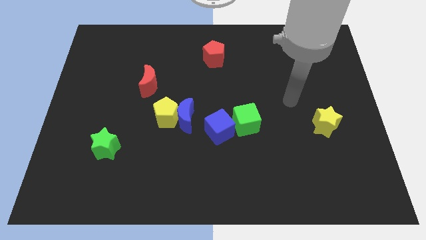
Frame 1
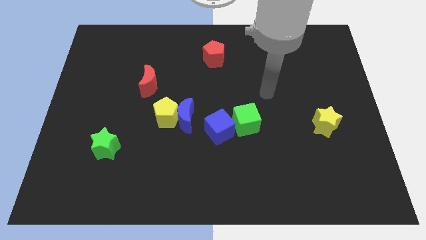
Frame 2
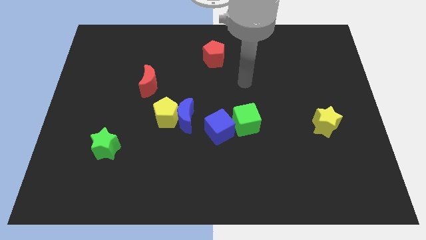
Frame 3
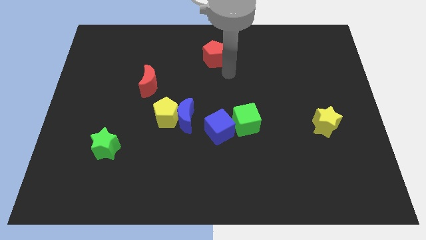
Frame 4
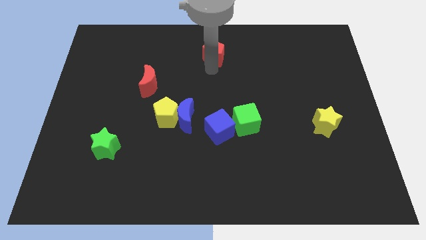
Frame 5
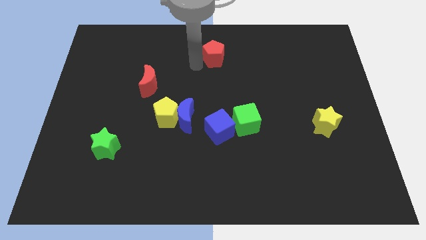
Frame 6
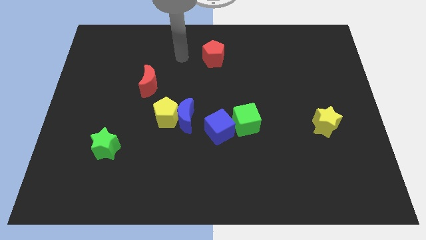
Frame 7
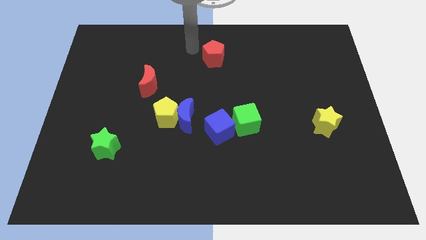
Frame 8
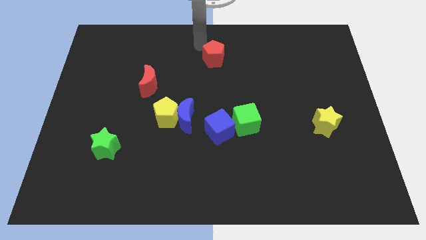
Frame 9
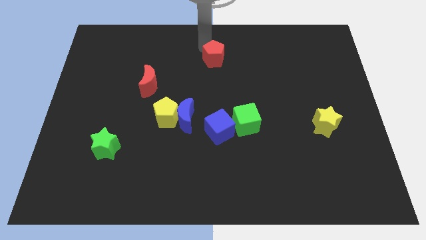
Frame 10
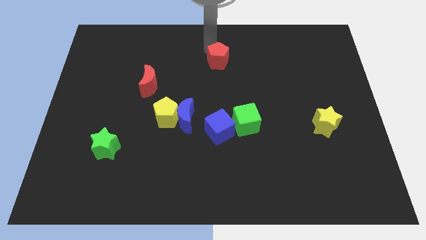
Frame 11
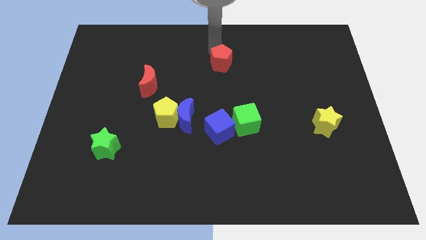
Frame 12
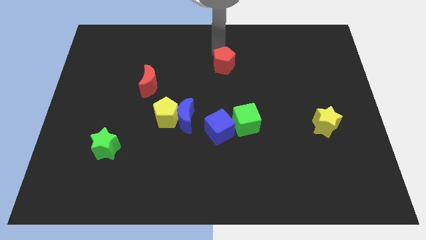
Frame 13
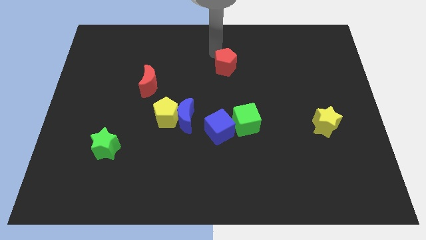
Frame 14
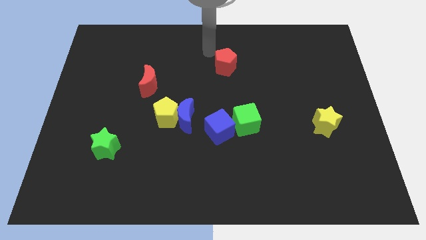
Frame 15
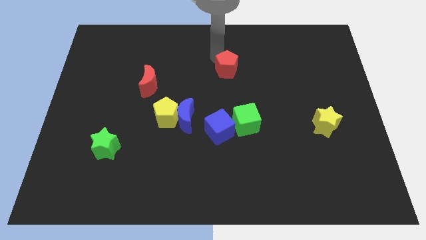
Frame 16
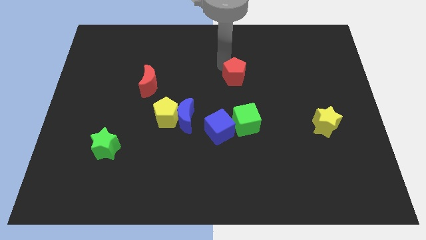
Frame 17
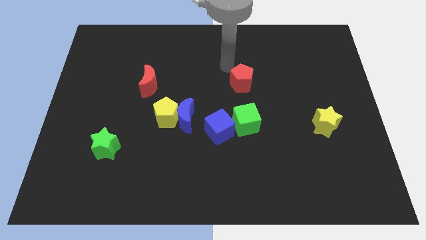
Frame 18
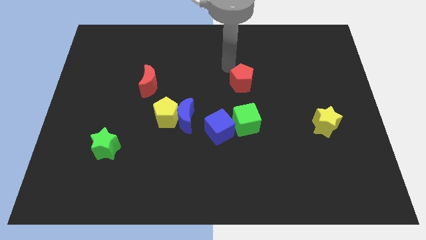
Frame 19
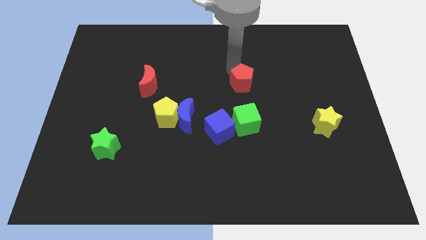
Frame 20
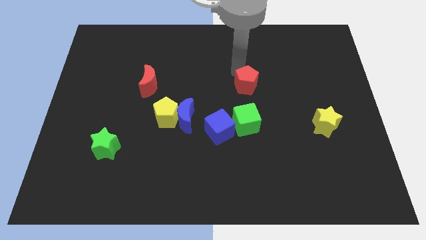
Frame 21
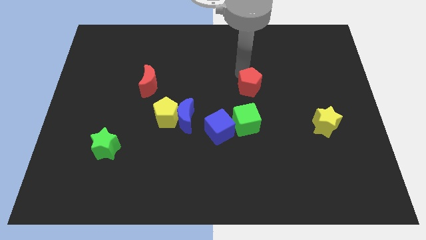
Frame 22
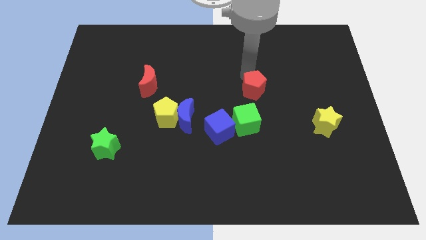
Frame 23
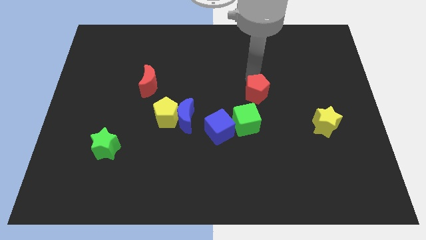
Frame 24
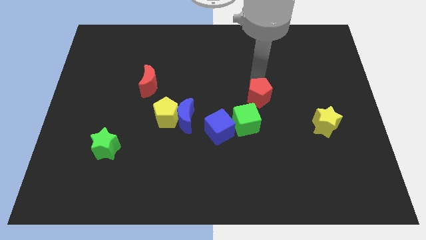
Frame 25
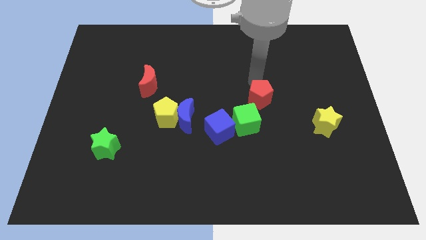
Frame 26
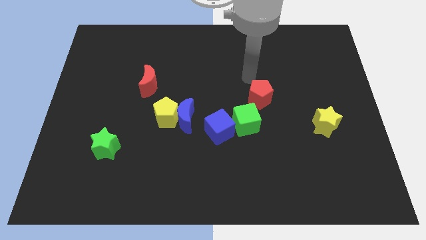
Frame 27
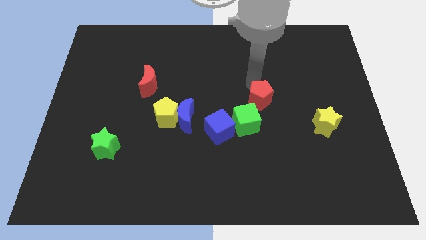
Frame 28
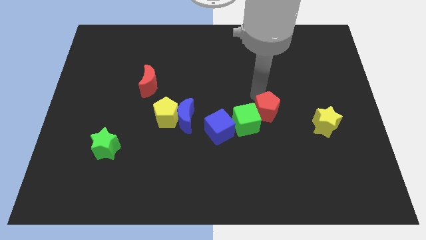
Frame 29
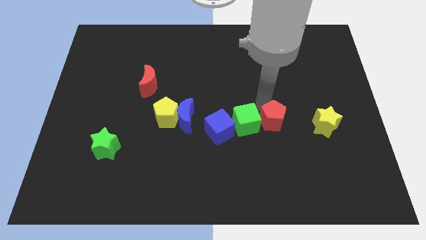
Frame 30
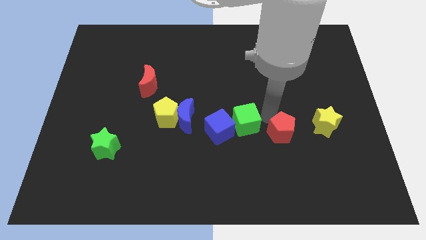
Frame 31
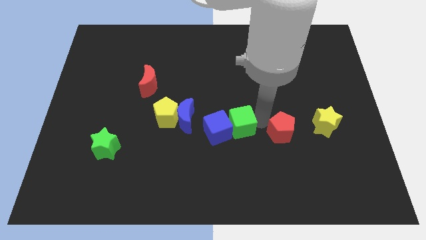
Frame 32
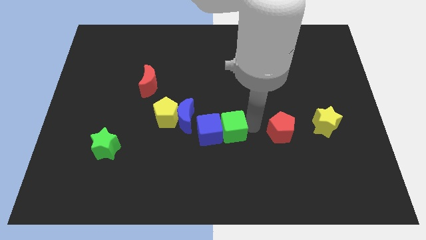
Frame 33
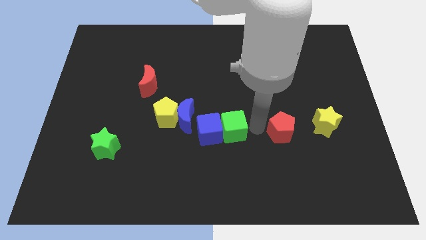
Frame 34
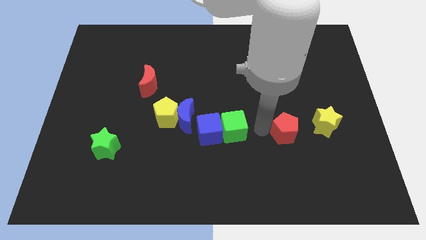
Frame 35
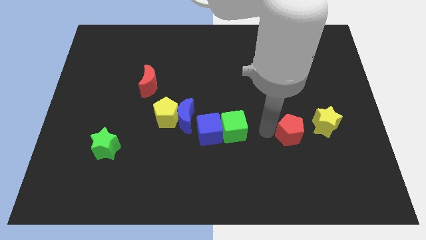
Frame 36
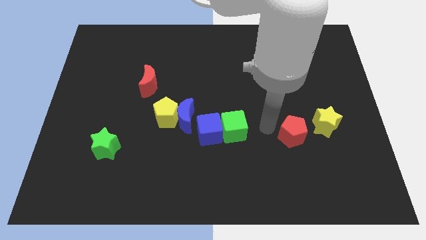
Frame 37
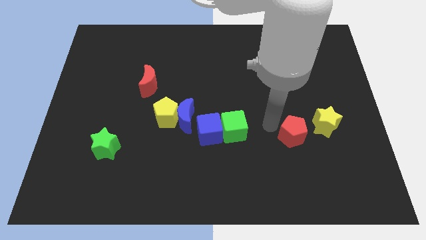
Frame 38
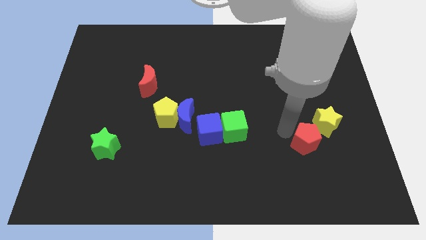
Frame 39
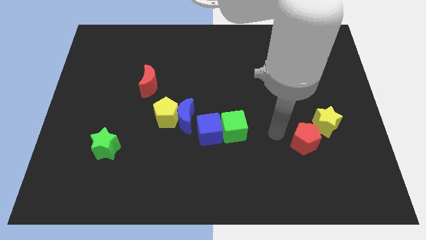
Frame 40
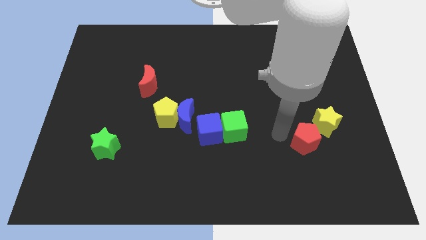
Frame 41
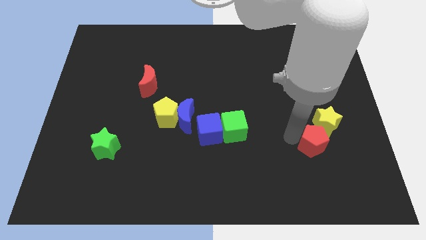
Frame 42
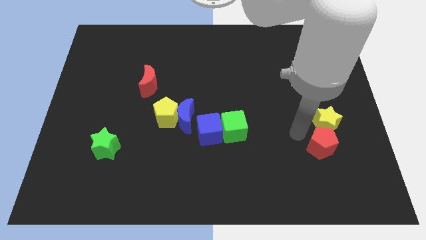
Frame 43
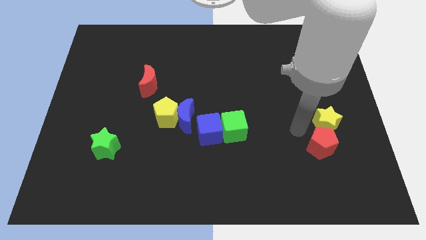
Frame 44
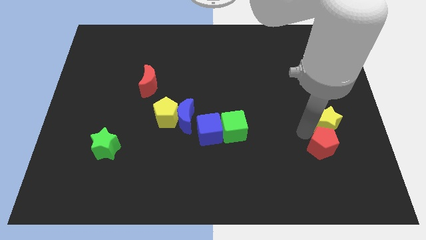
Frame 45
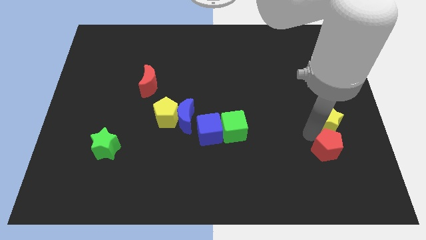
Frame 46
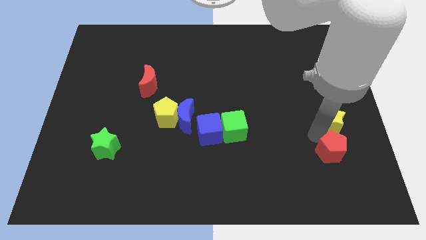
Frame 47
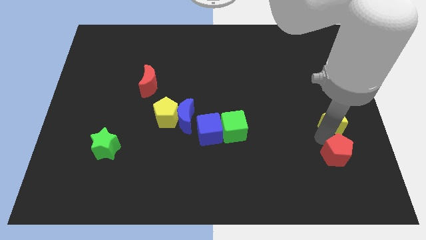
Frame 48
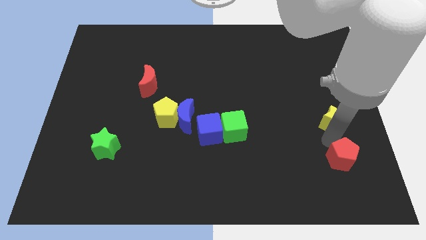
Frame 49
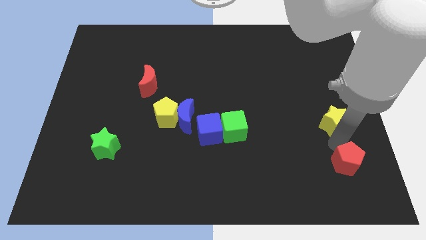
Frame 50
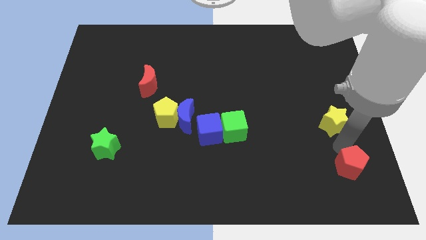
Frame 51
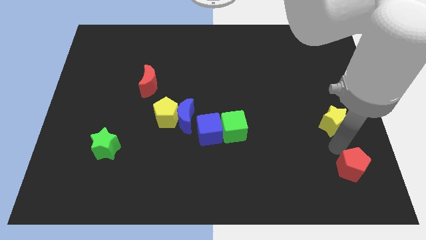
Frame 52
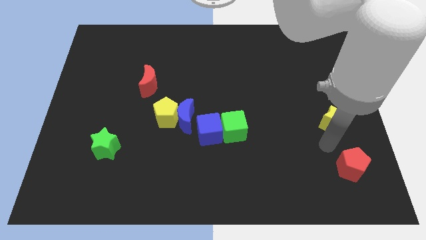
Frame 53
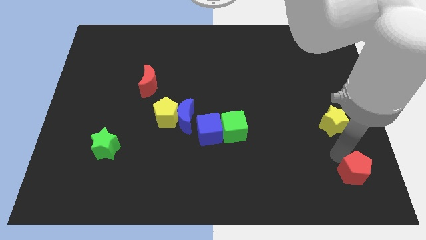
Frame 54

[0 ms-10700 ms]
slide the red pentagon to the lower right corner

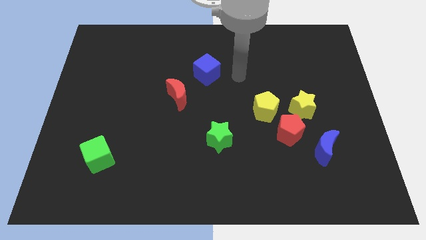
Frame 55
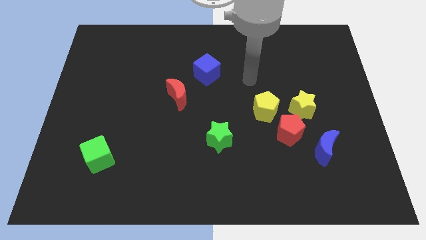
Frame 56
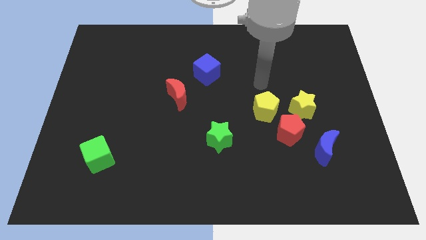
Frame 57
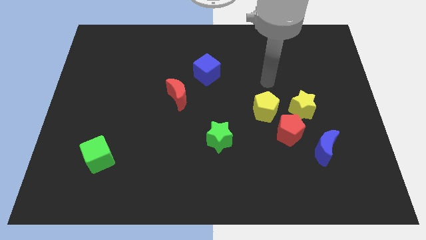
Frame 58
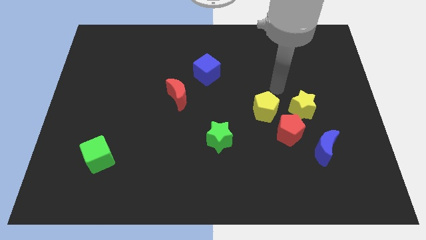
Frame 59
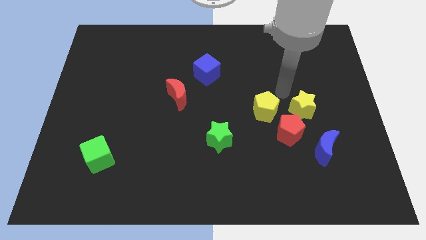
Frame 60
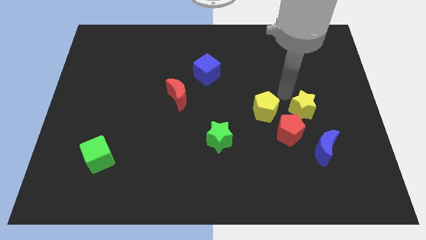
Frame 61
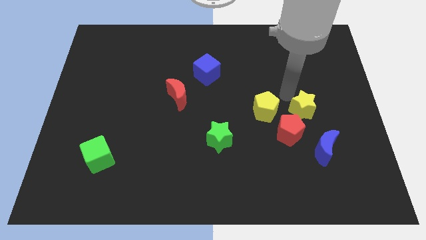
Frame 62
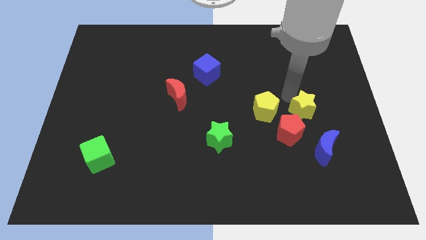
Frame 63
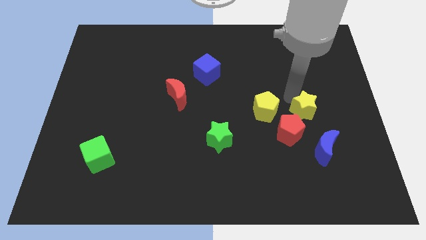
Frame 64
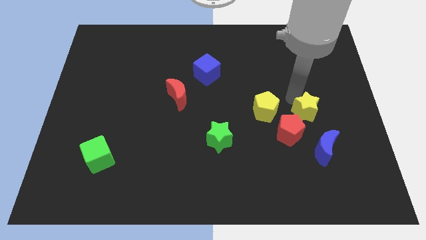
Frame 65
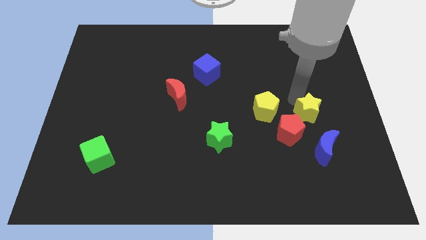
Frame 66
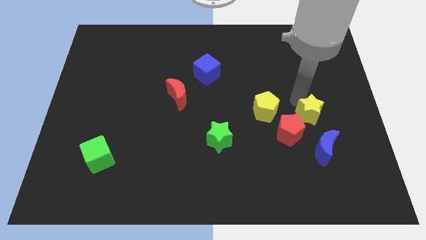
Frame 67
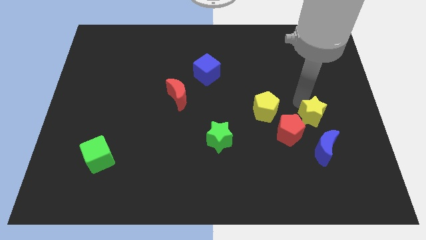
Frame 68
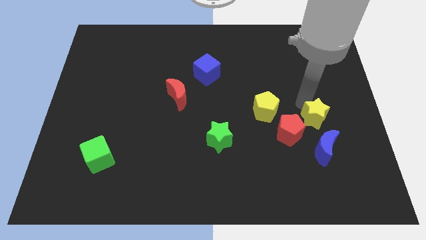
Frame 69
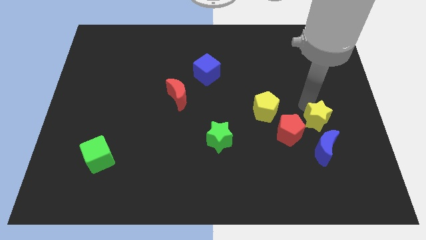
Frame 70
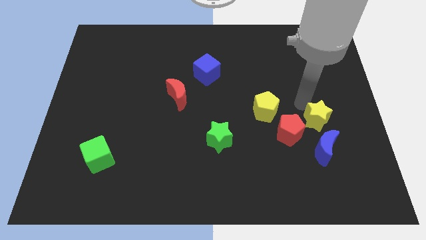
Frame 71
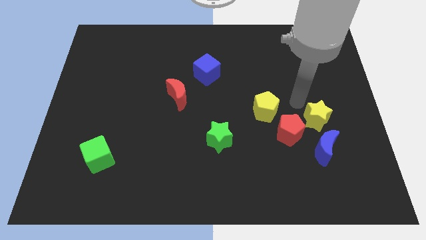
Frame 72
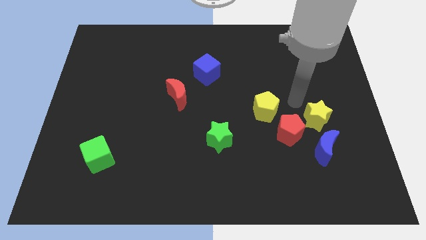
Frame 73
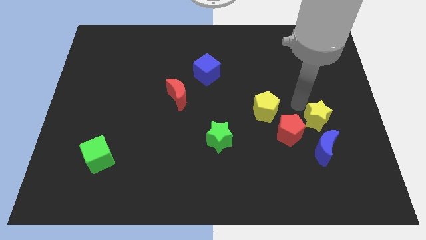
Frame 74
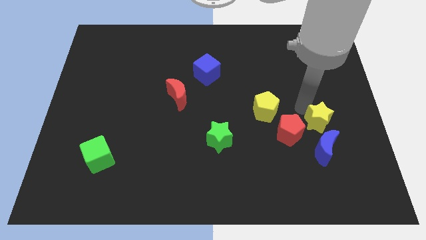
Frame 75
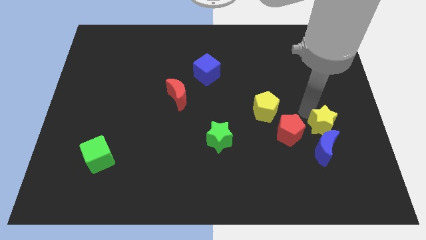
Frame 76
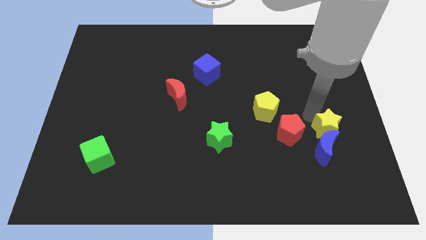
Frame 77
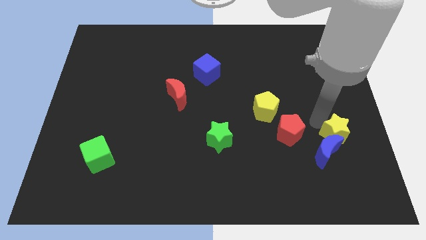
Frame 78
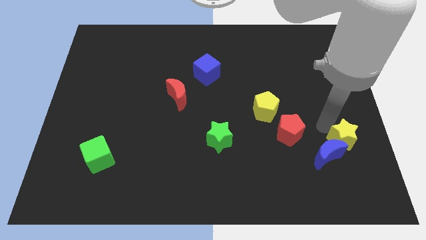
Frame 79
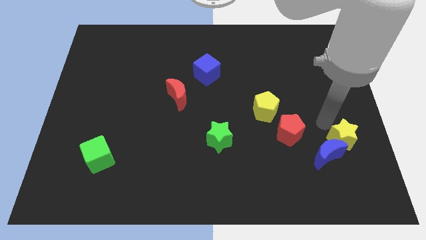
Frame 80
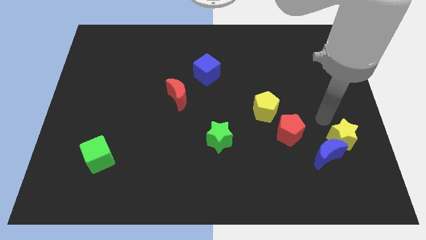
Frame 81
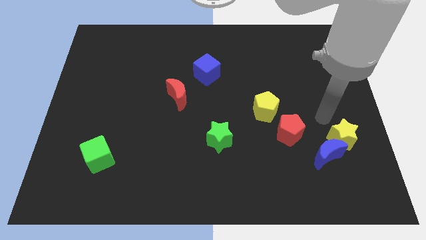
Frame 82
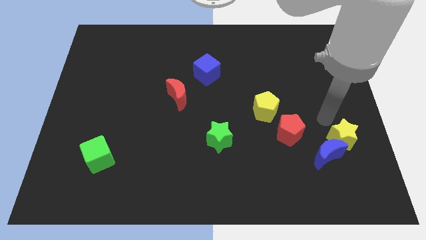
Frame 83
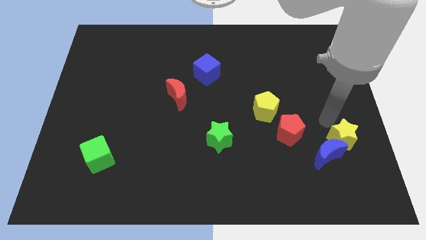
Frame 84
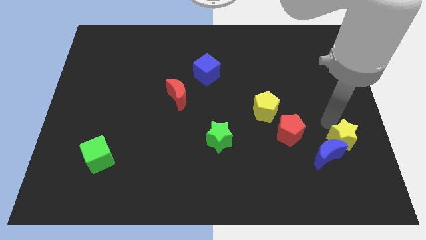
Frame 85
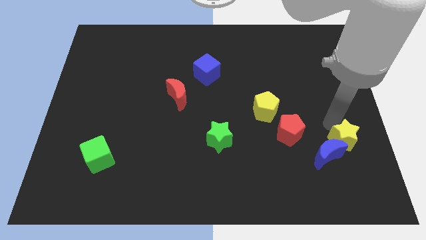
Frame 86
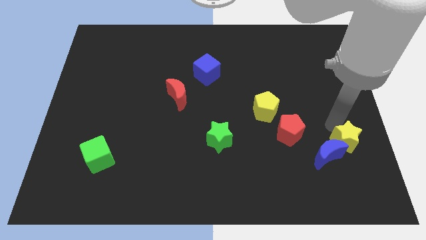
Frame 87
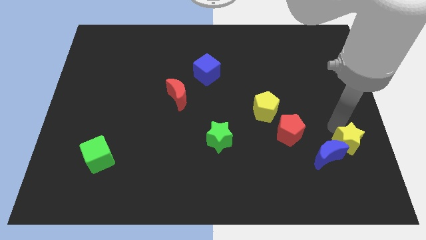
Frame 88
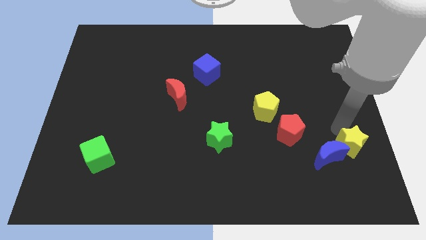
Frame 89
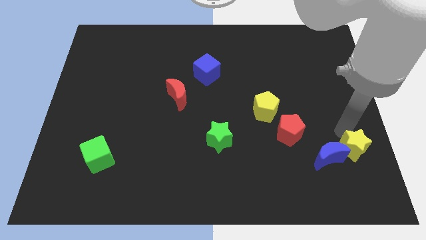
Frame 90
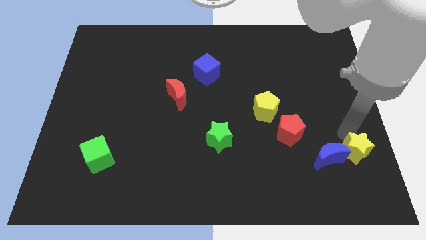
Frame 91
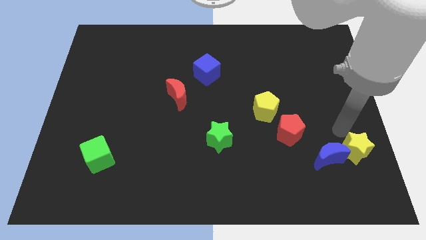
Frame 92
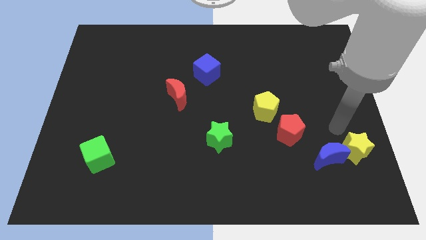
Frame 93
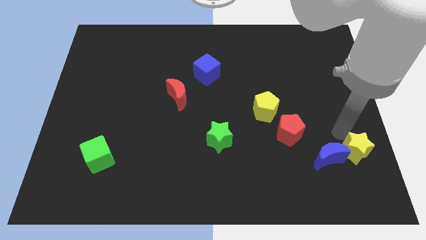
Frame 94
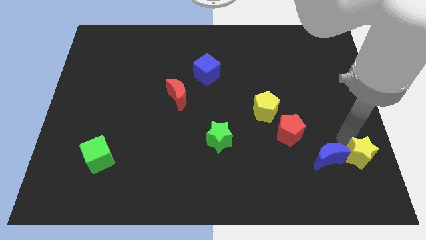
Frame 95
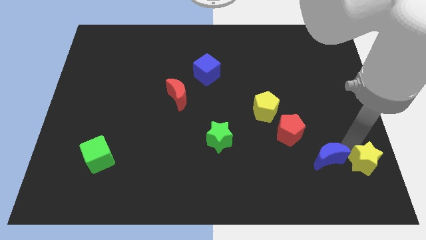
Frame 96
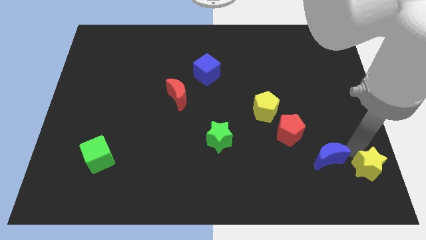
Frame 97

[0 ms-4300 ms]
slide the yellow star to the bottom right corner
